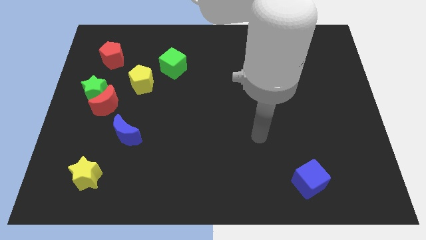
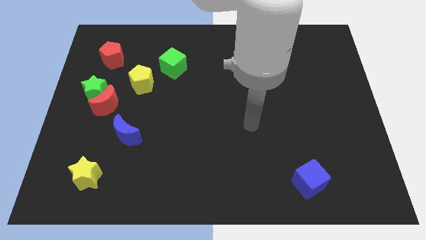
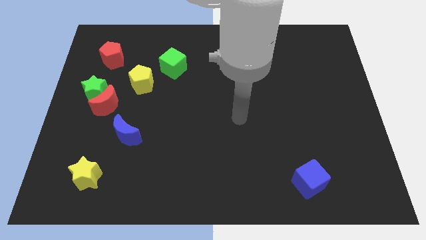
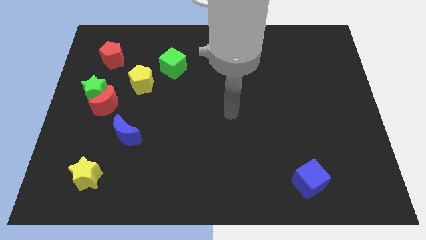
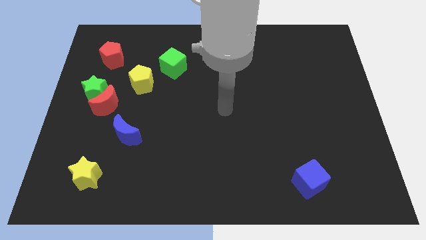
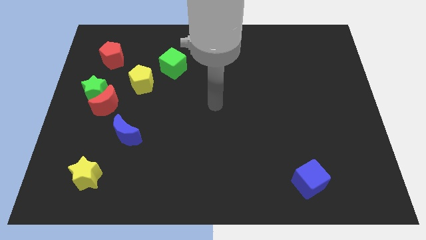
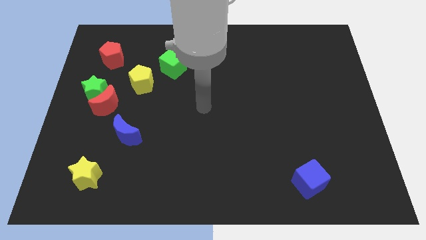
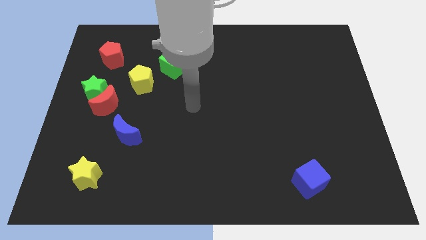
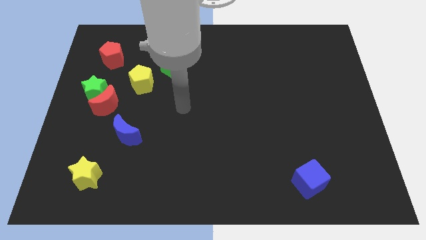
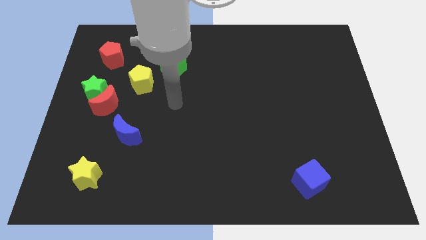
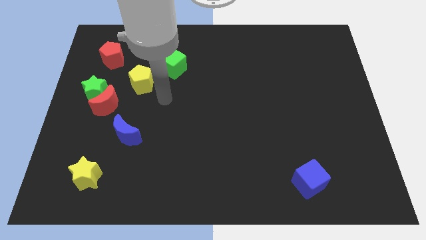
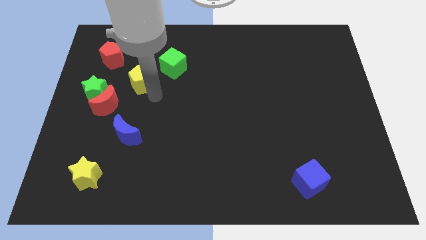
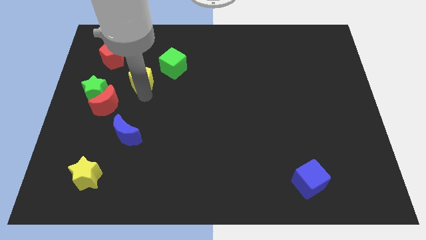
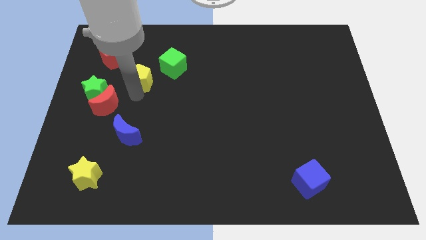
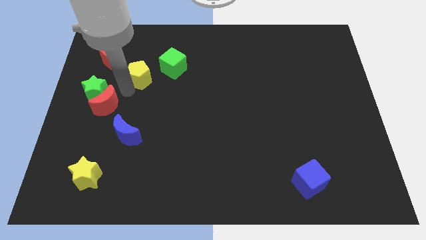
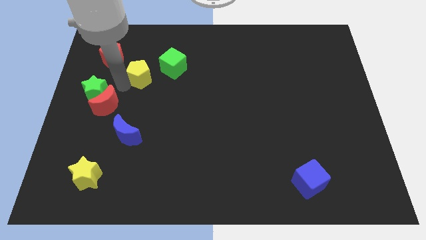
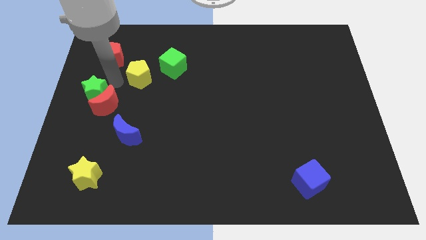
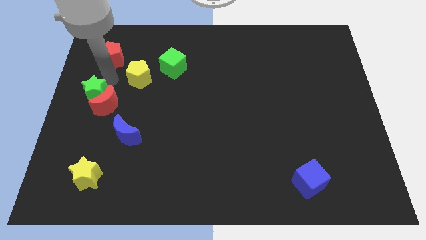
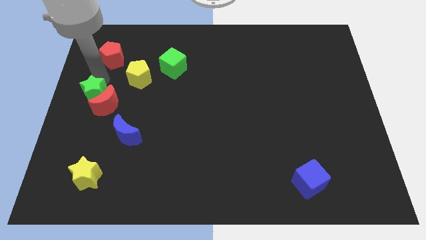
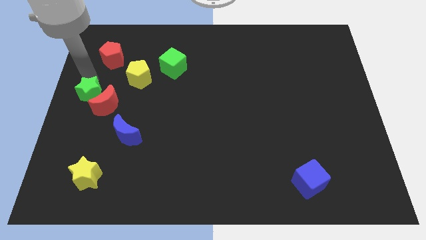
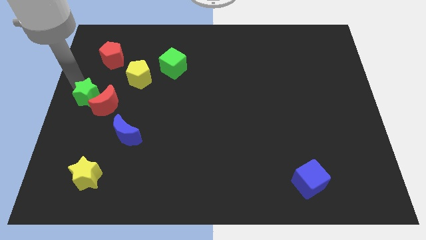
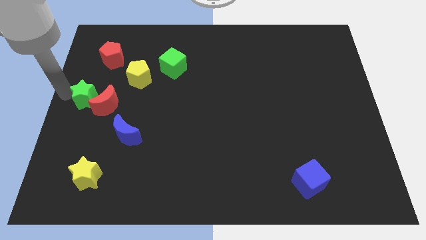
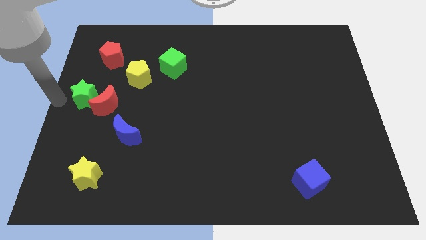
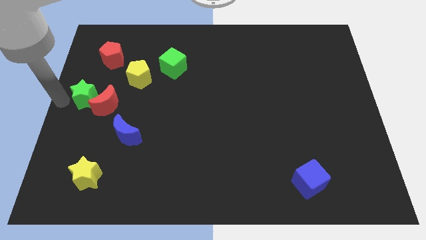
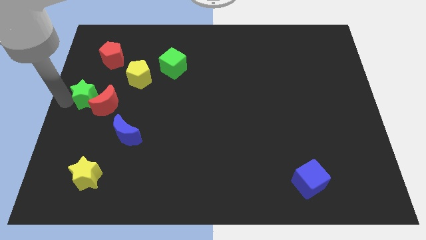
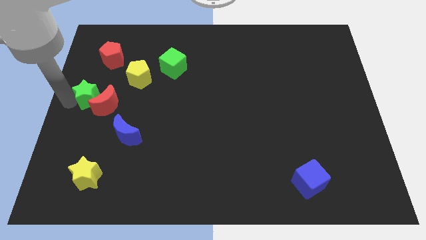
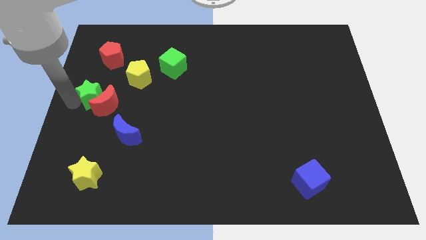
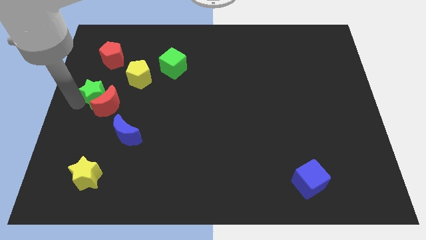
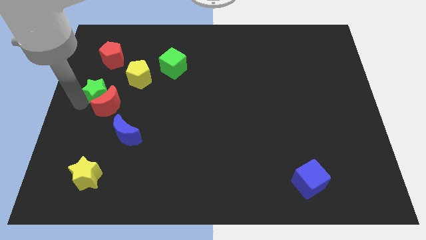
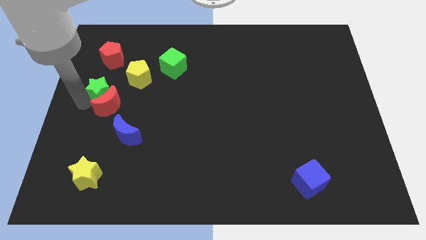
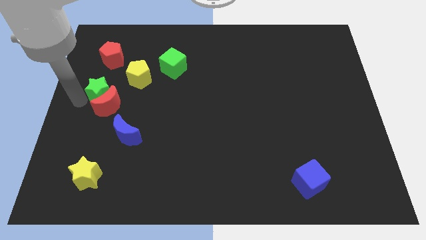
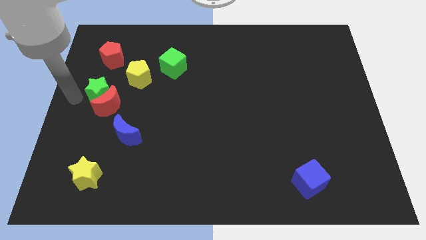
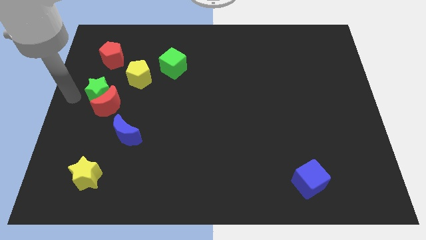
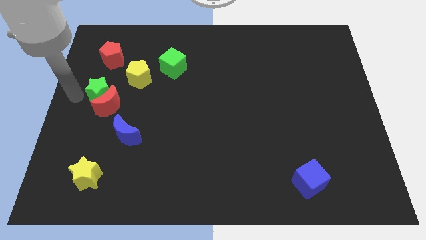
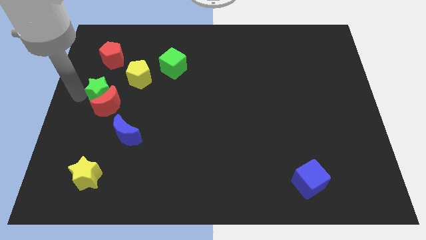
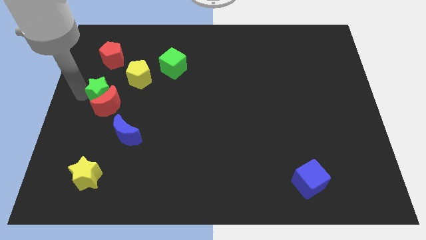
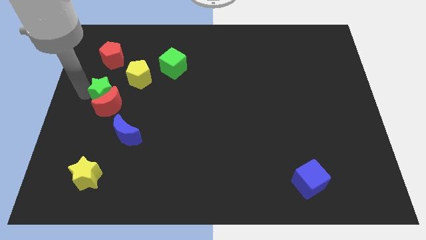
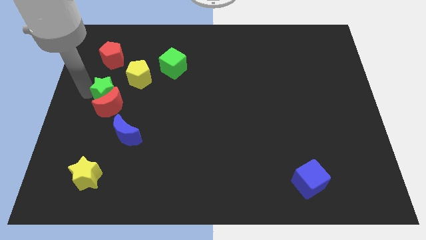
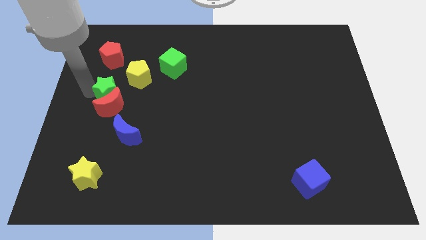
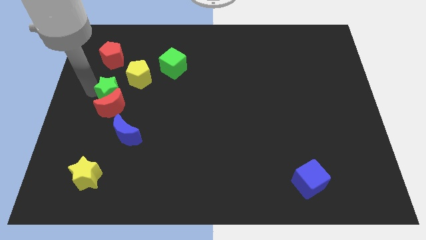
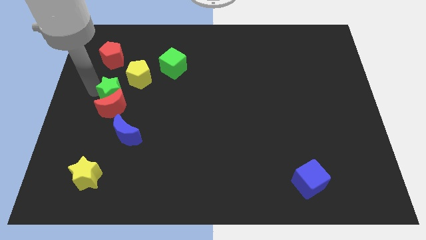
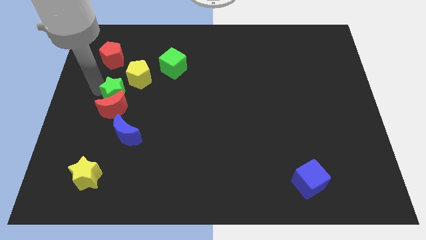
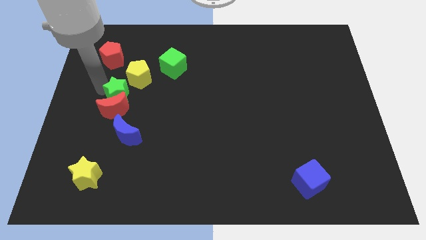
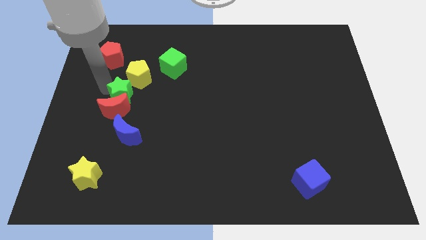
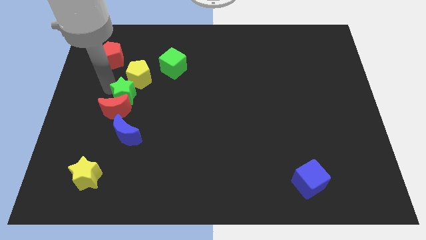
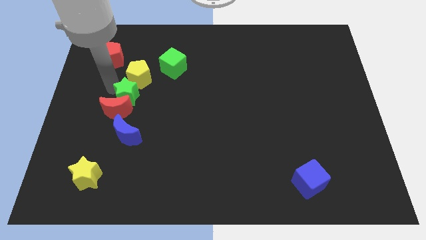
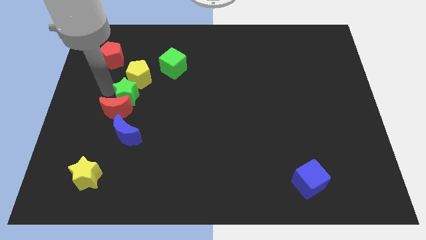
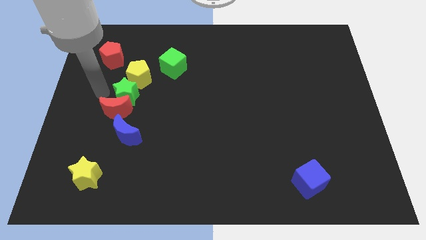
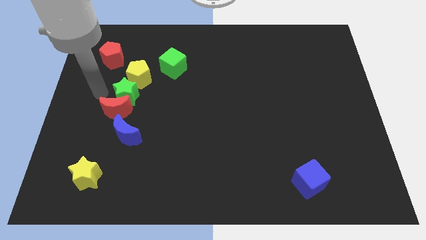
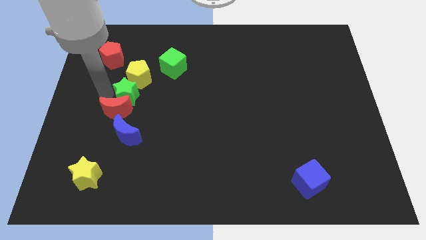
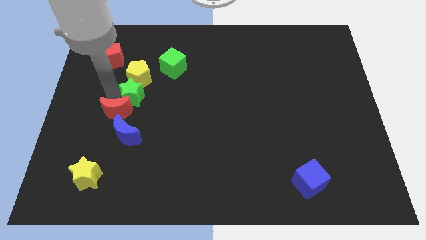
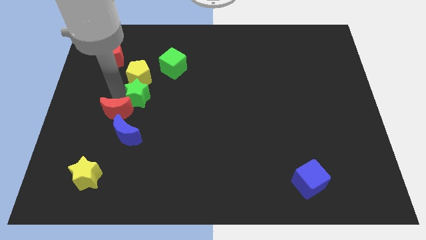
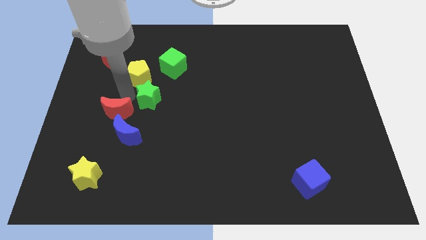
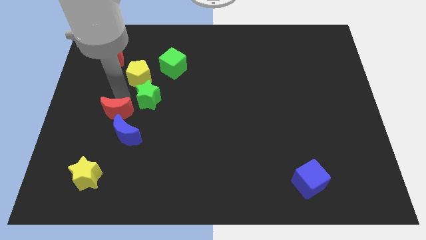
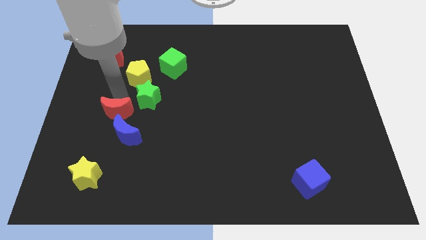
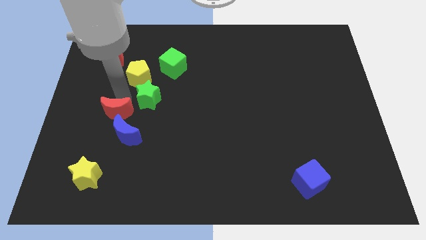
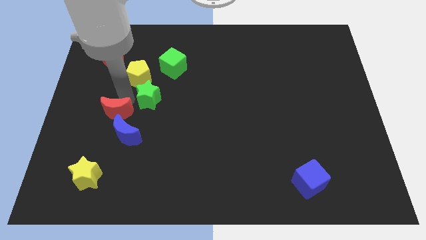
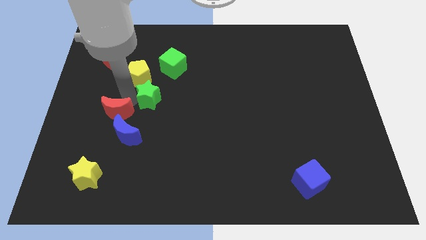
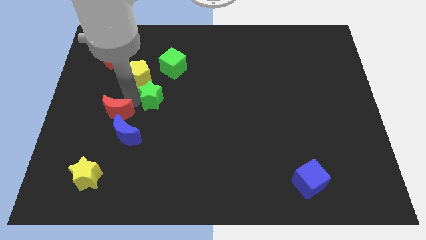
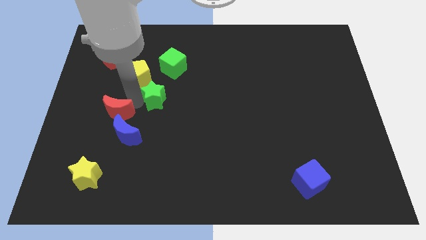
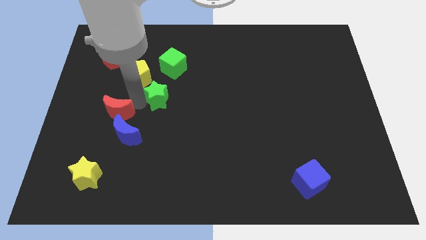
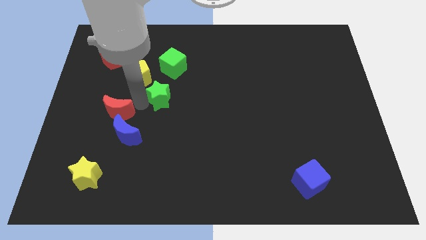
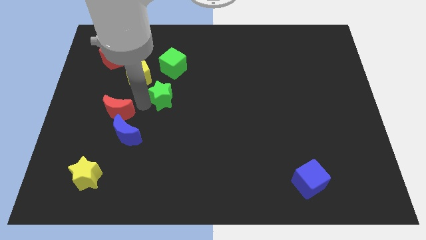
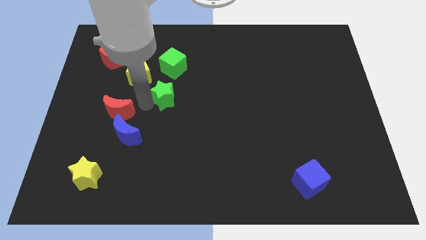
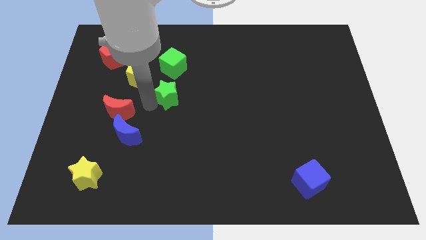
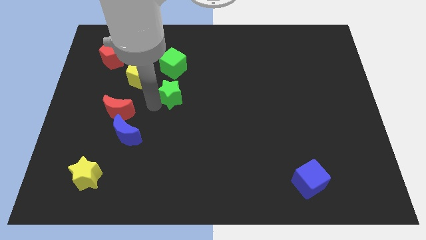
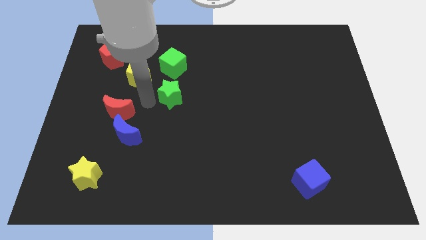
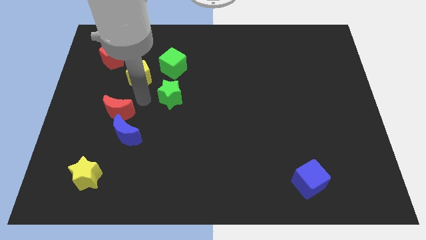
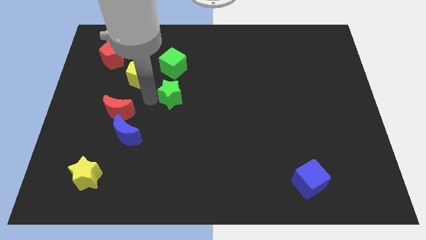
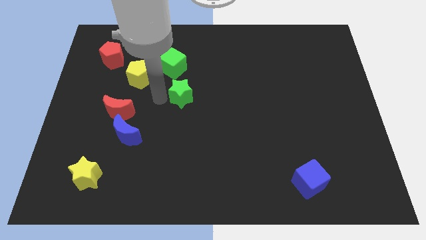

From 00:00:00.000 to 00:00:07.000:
slide the green star to the right

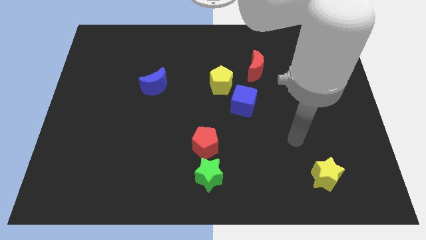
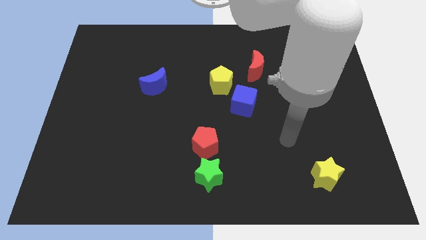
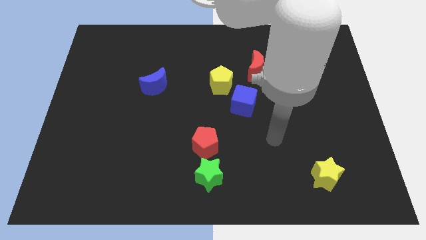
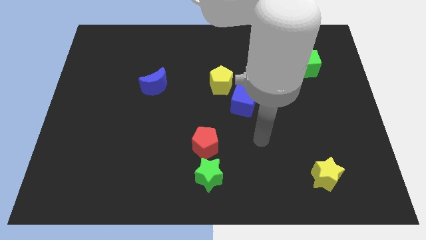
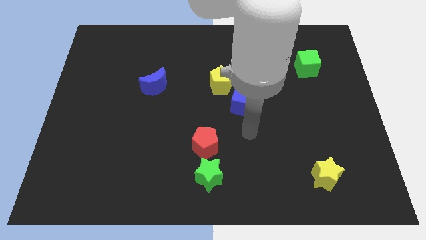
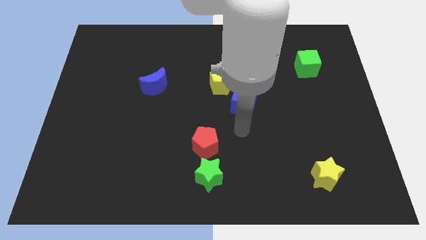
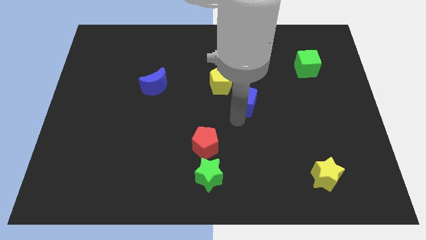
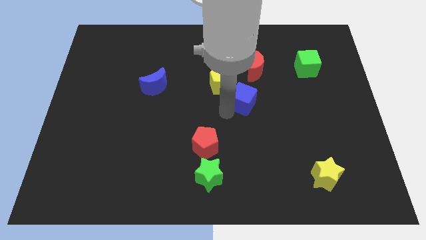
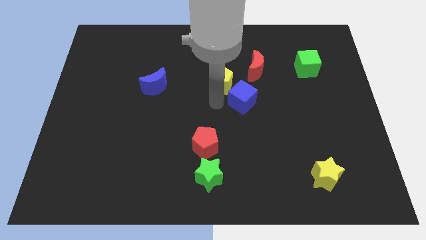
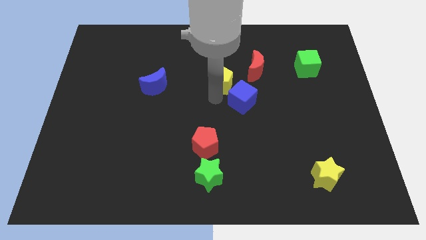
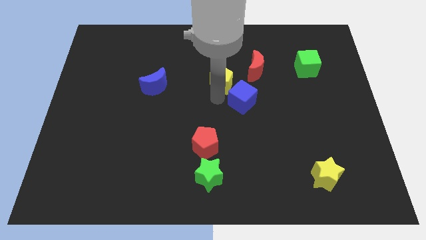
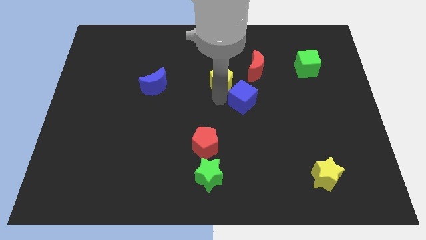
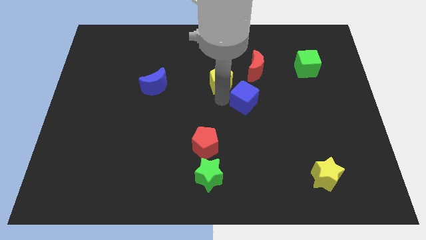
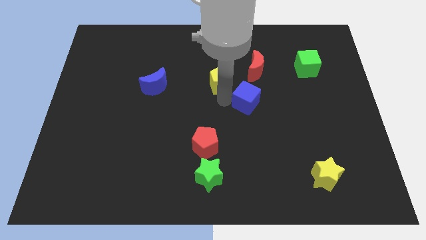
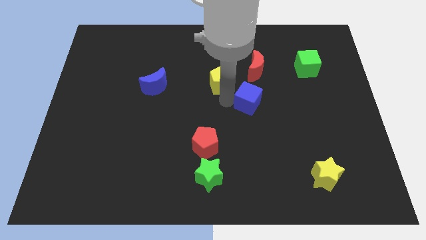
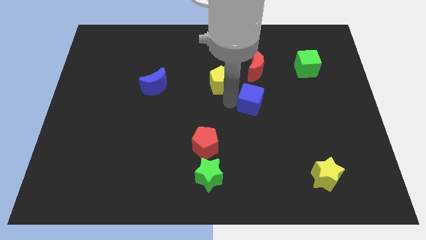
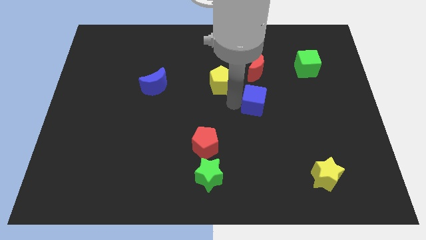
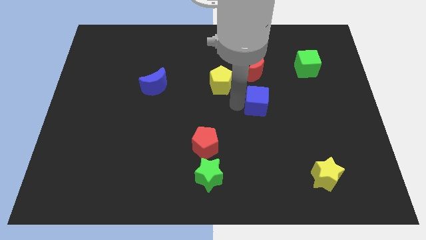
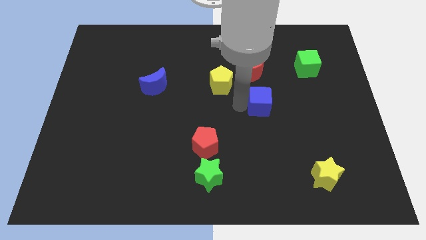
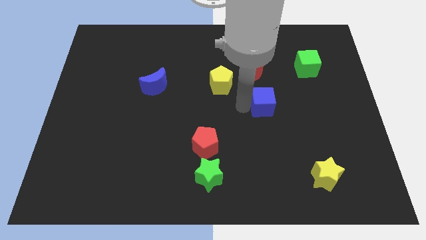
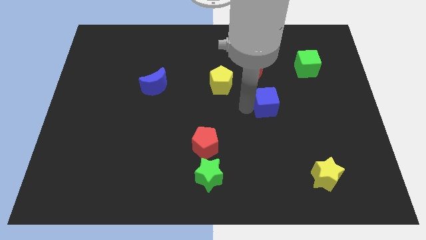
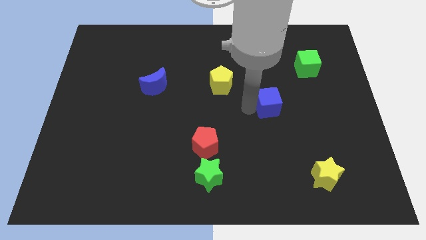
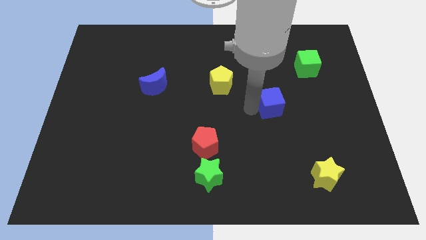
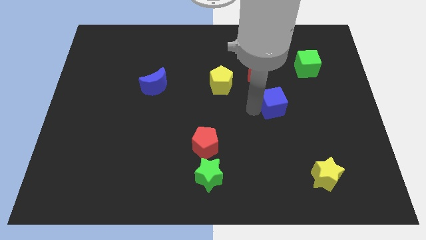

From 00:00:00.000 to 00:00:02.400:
move the blue cube somewhat to the right
